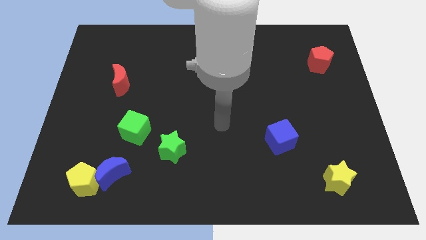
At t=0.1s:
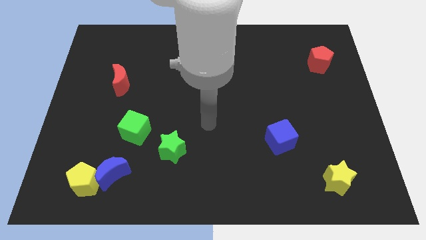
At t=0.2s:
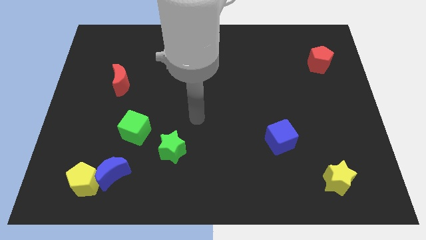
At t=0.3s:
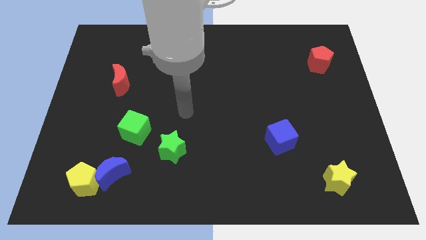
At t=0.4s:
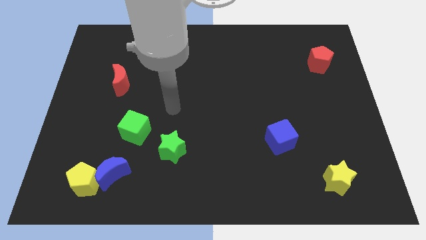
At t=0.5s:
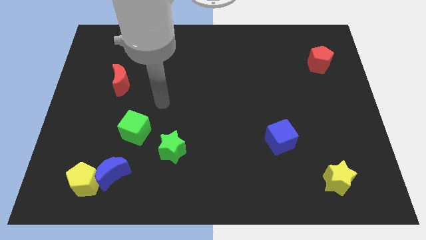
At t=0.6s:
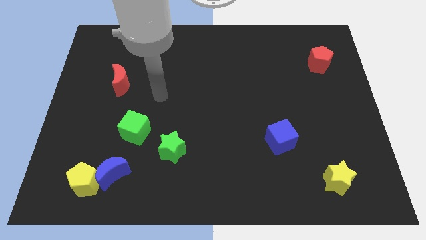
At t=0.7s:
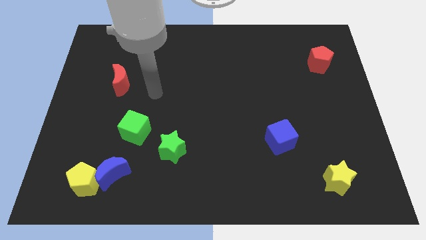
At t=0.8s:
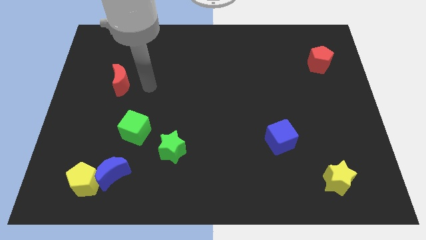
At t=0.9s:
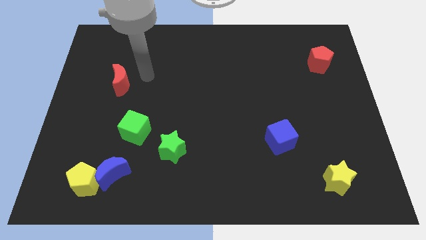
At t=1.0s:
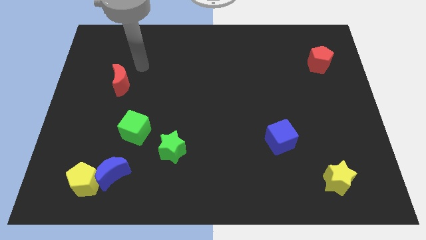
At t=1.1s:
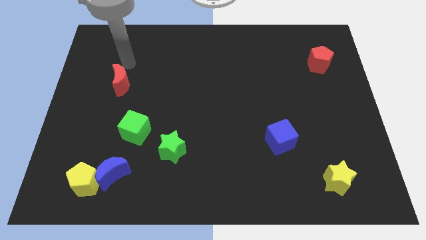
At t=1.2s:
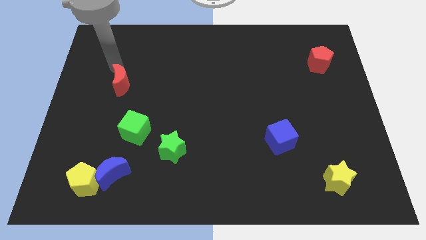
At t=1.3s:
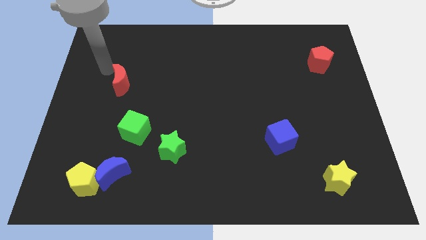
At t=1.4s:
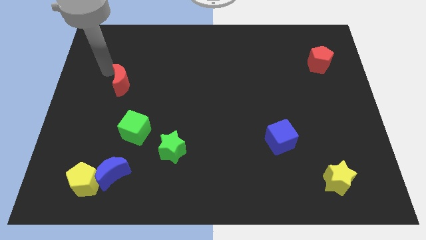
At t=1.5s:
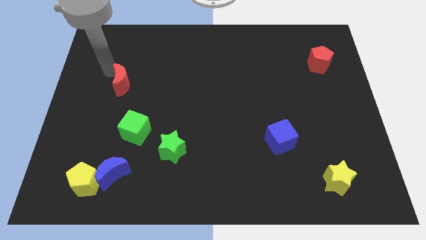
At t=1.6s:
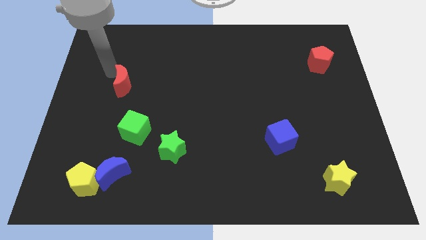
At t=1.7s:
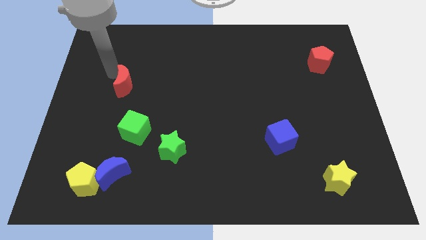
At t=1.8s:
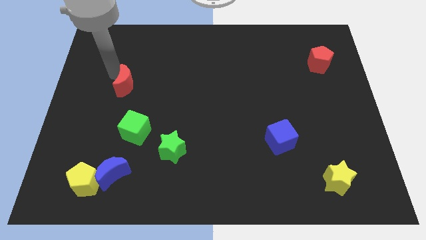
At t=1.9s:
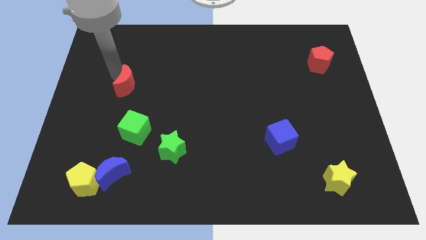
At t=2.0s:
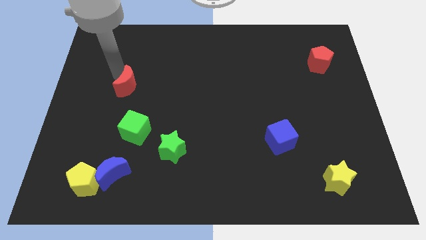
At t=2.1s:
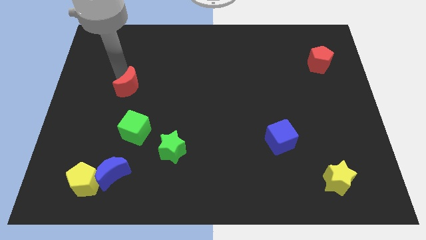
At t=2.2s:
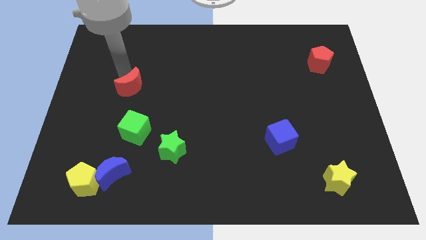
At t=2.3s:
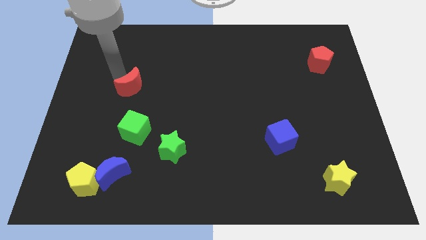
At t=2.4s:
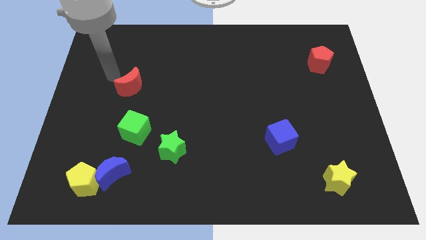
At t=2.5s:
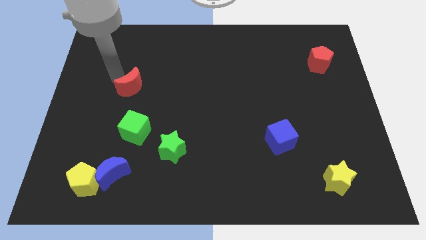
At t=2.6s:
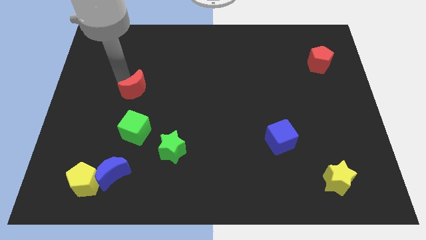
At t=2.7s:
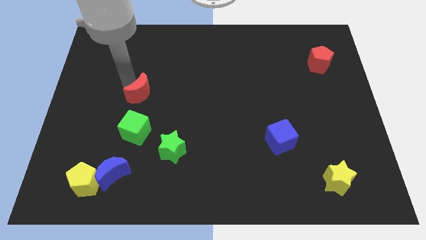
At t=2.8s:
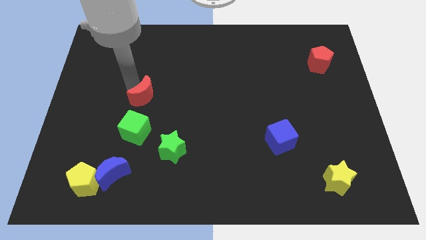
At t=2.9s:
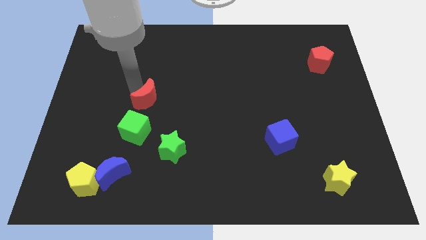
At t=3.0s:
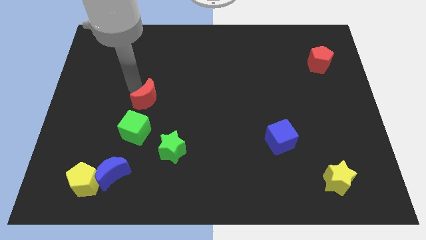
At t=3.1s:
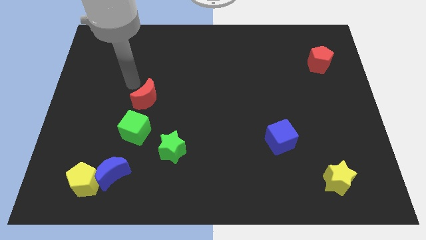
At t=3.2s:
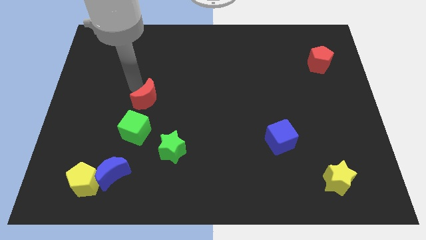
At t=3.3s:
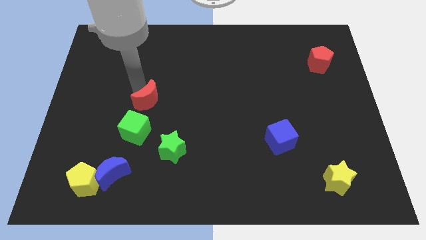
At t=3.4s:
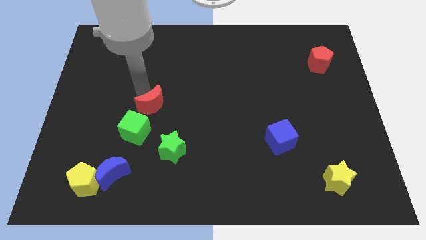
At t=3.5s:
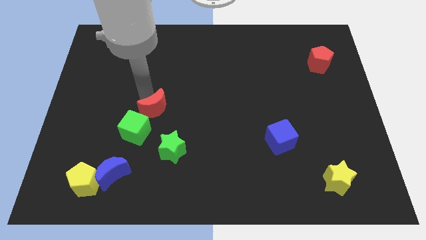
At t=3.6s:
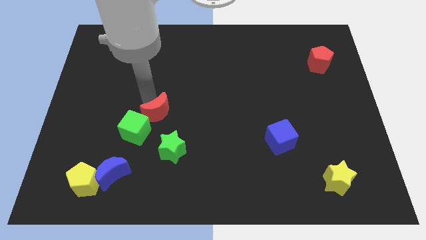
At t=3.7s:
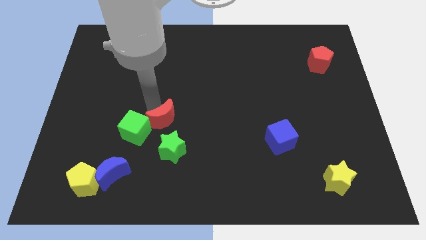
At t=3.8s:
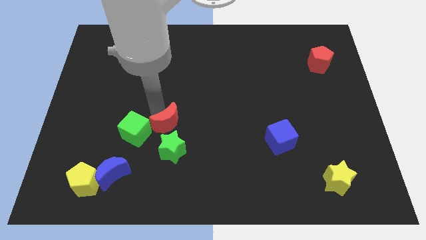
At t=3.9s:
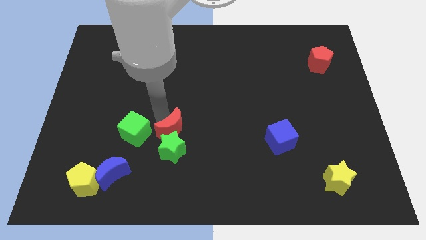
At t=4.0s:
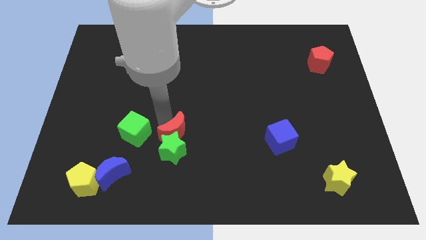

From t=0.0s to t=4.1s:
slide the red moon down and right

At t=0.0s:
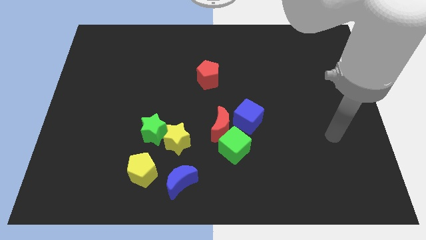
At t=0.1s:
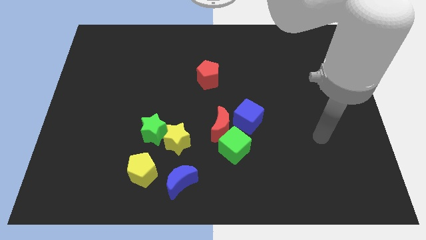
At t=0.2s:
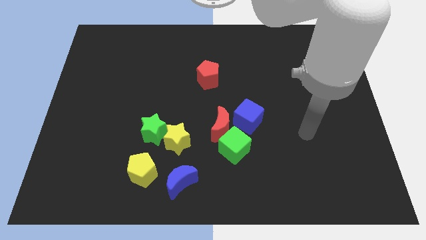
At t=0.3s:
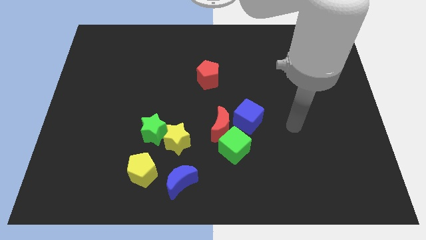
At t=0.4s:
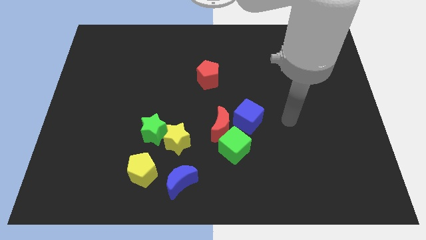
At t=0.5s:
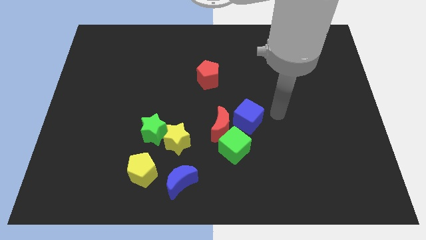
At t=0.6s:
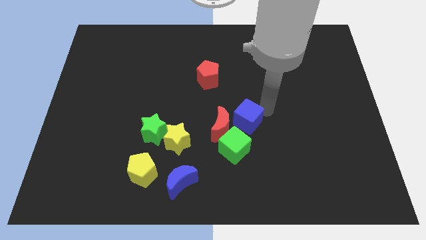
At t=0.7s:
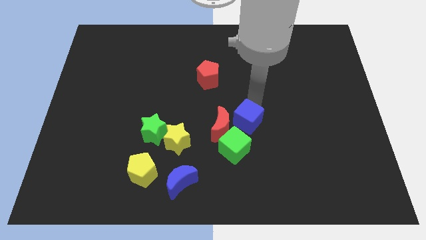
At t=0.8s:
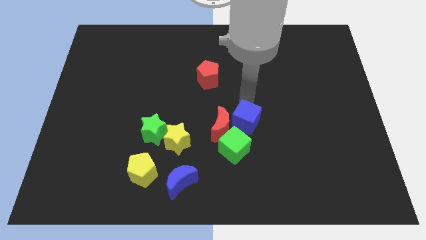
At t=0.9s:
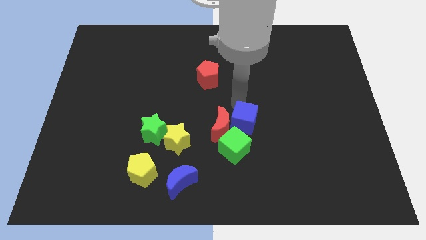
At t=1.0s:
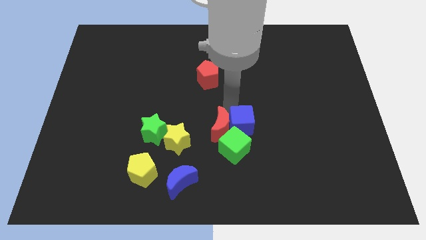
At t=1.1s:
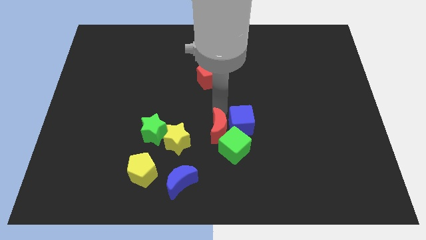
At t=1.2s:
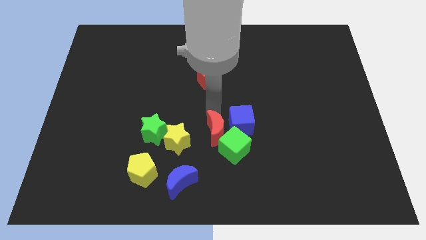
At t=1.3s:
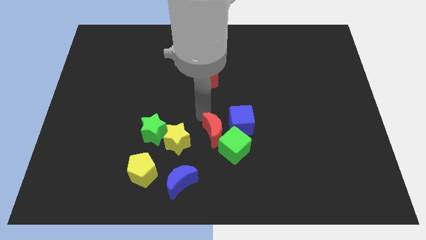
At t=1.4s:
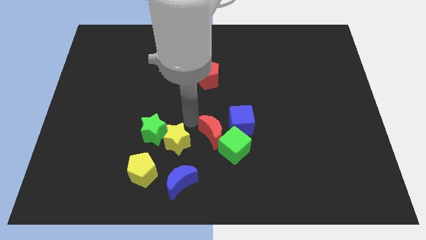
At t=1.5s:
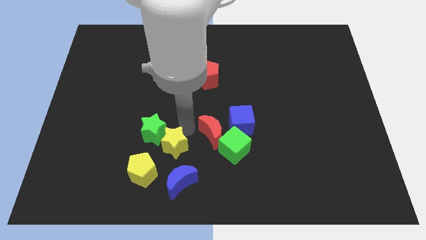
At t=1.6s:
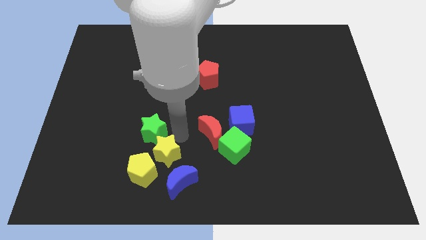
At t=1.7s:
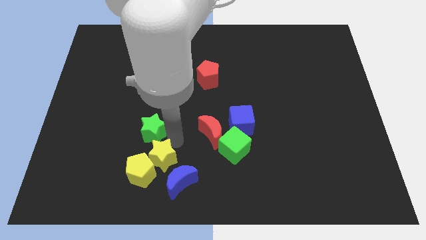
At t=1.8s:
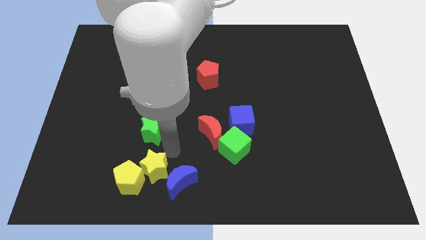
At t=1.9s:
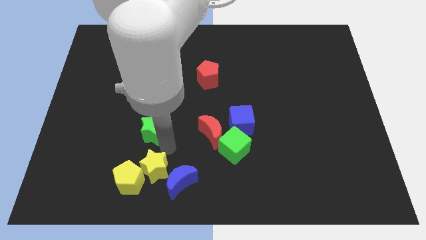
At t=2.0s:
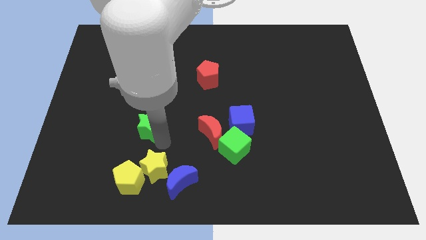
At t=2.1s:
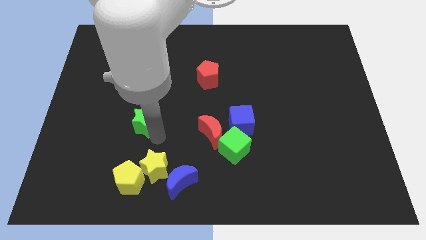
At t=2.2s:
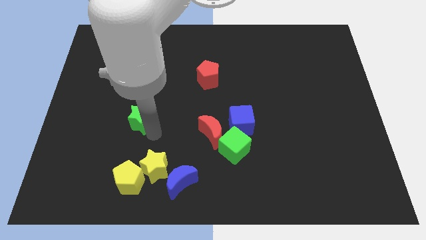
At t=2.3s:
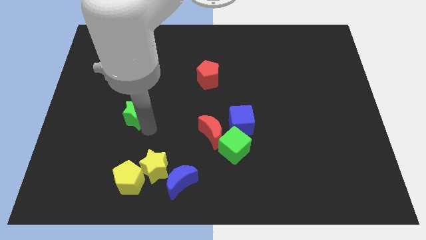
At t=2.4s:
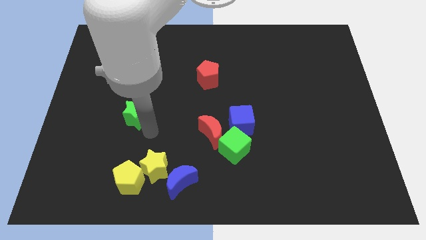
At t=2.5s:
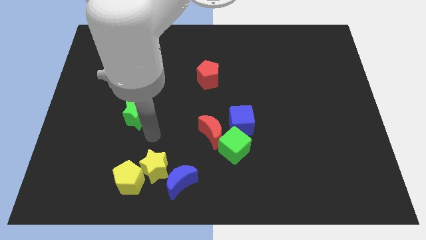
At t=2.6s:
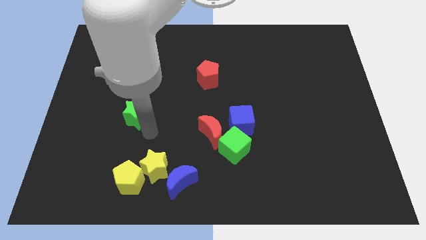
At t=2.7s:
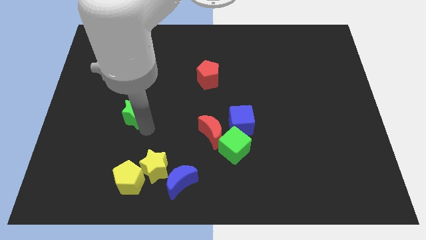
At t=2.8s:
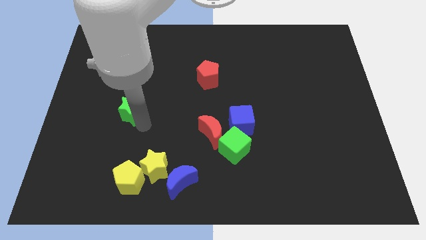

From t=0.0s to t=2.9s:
slightly push the green star up and left diagonally

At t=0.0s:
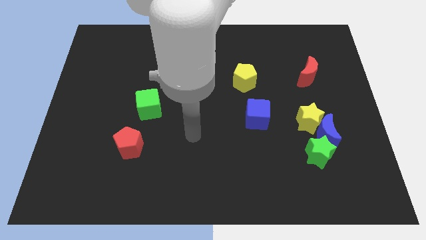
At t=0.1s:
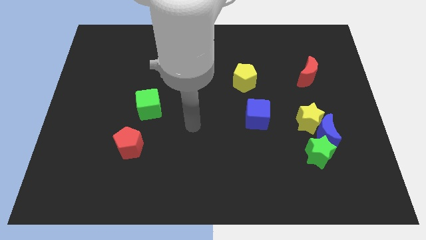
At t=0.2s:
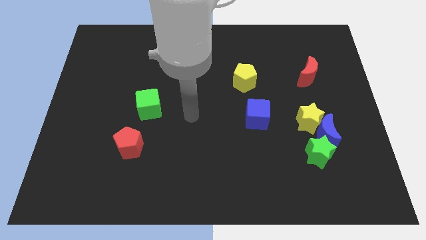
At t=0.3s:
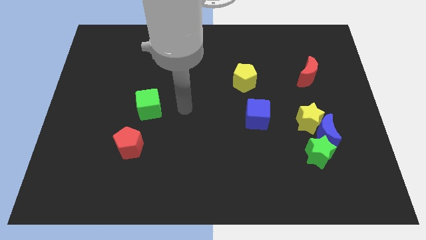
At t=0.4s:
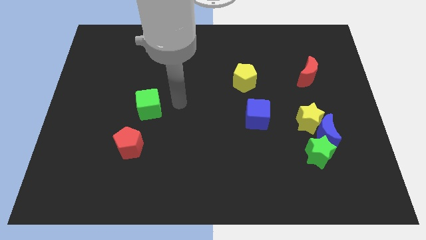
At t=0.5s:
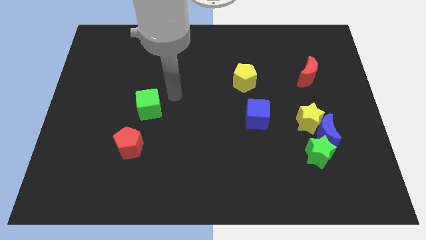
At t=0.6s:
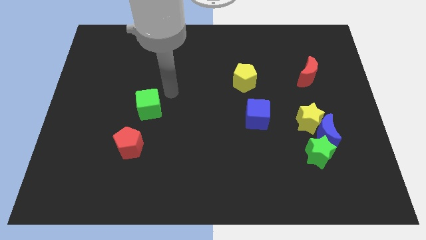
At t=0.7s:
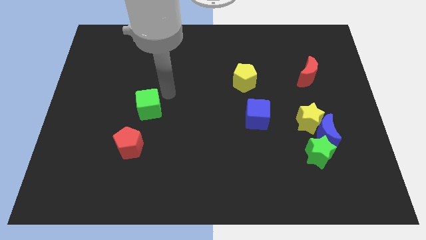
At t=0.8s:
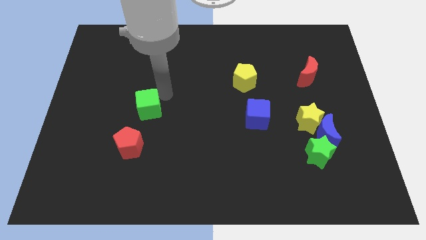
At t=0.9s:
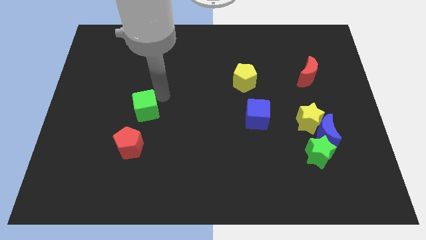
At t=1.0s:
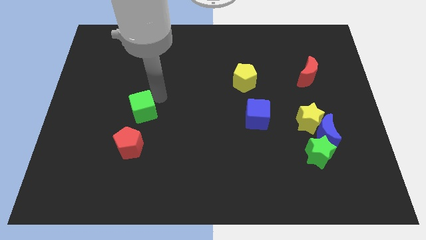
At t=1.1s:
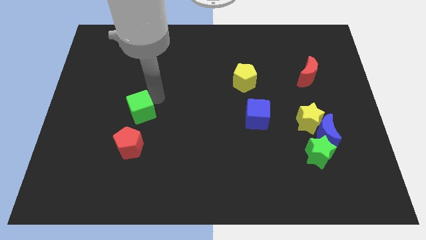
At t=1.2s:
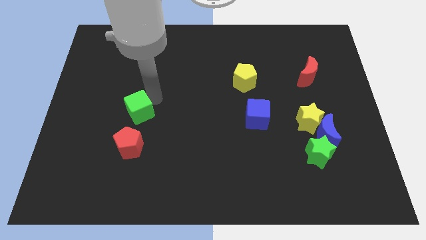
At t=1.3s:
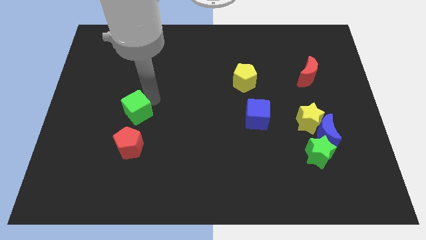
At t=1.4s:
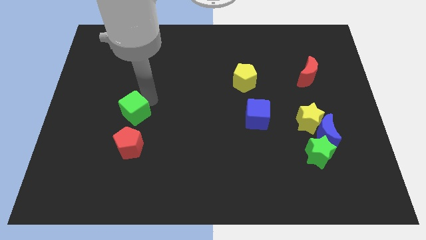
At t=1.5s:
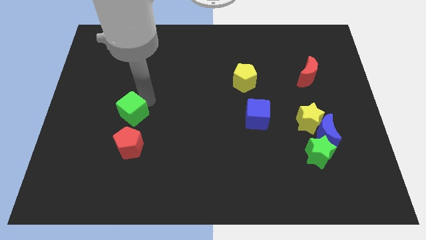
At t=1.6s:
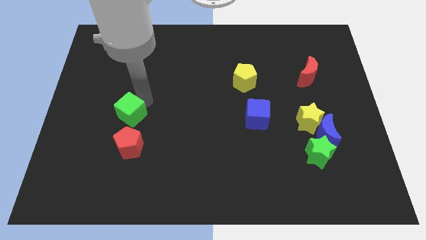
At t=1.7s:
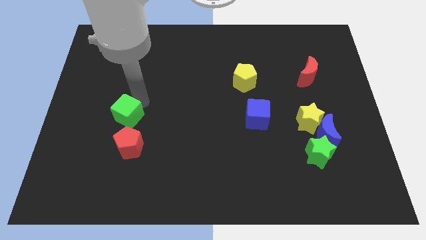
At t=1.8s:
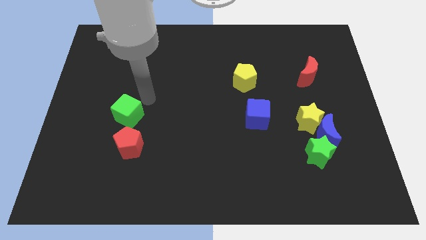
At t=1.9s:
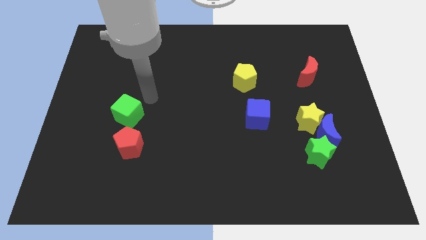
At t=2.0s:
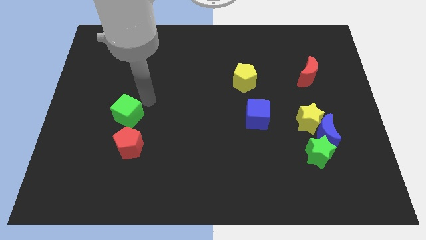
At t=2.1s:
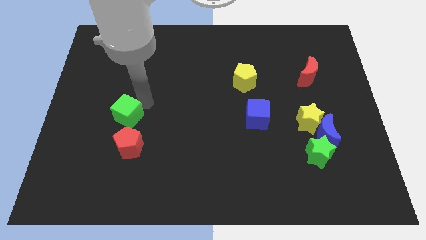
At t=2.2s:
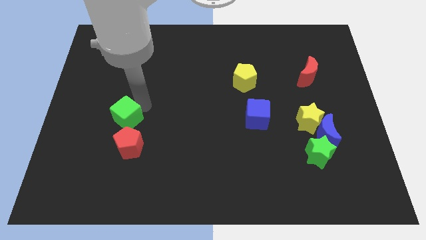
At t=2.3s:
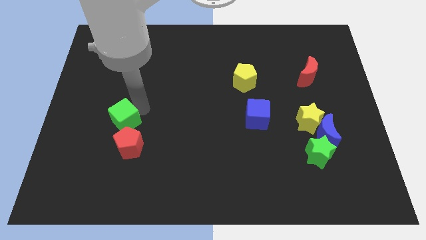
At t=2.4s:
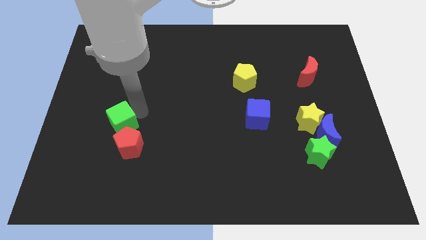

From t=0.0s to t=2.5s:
push the green cube somewhat down and then left
